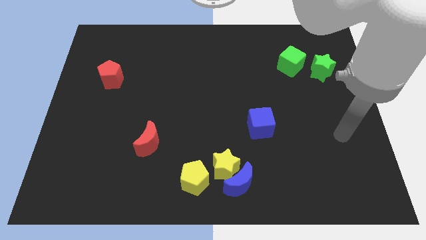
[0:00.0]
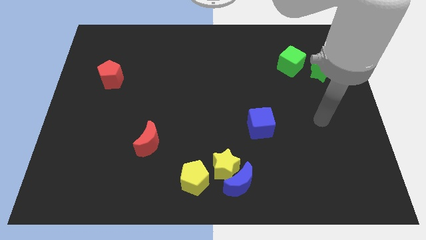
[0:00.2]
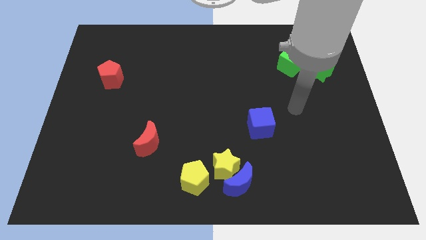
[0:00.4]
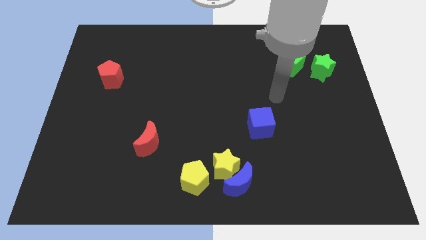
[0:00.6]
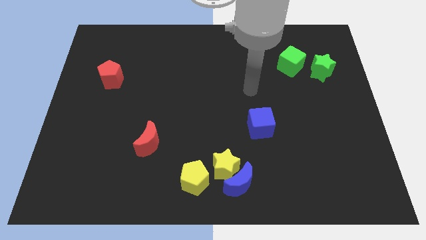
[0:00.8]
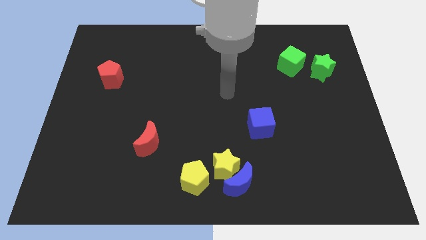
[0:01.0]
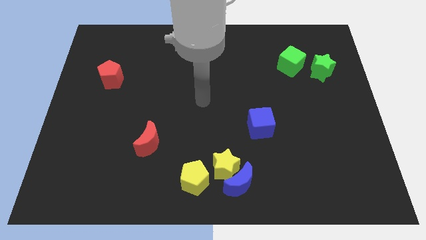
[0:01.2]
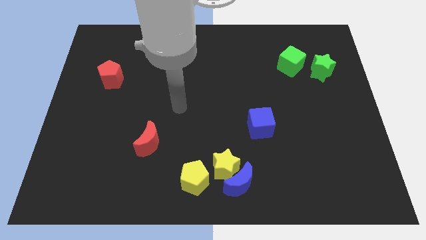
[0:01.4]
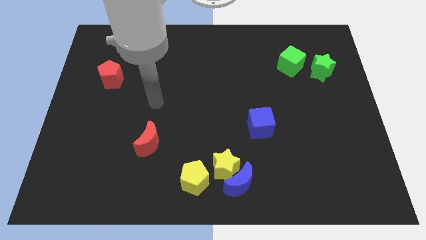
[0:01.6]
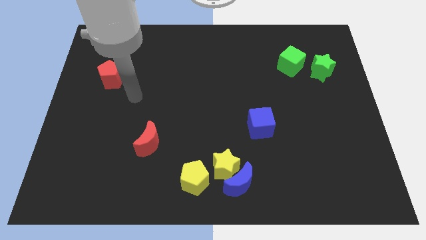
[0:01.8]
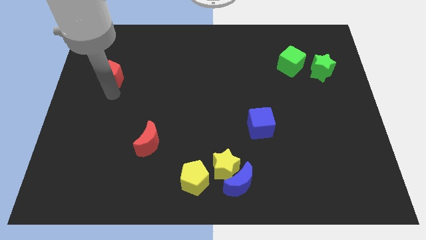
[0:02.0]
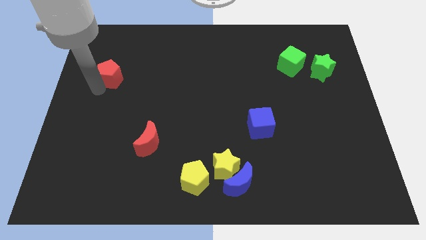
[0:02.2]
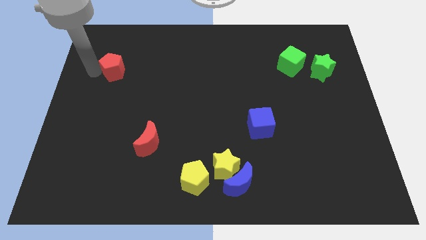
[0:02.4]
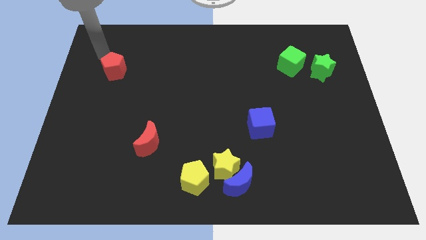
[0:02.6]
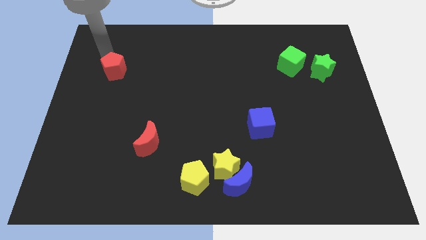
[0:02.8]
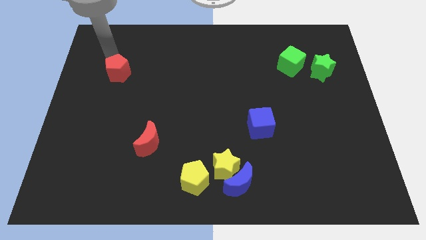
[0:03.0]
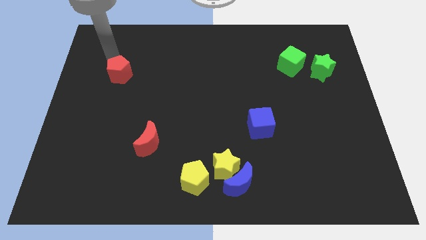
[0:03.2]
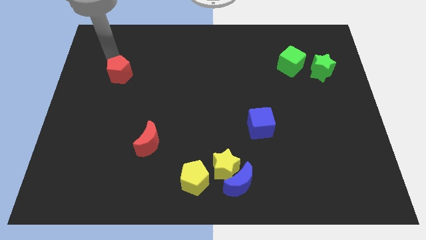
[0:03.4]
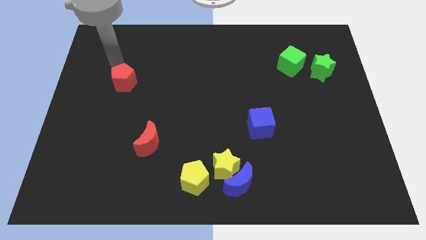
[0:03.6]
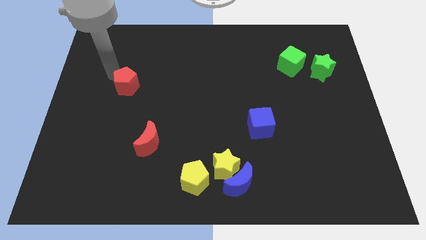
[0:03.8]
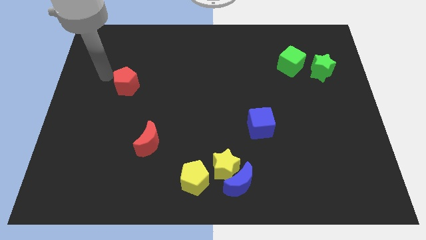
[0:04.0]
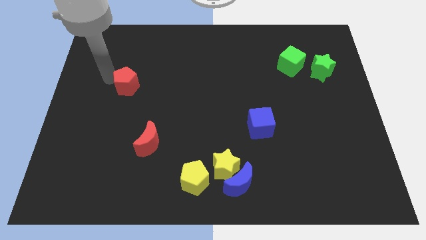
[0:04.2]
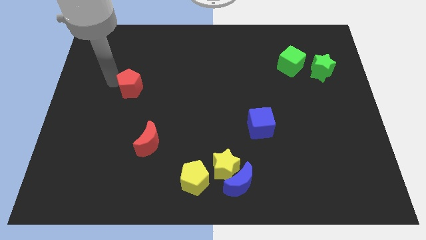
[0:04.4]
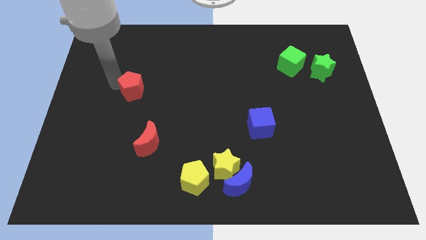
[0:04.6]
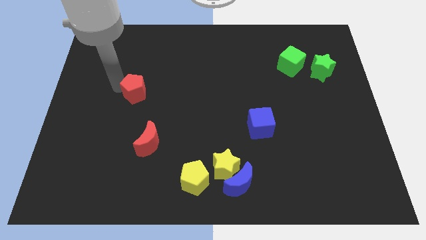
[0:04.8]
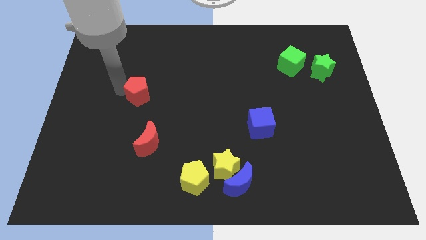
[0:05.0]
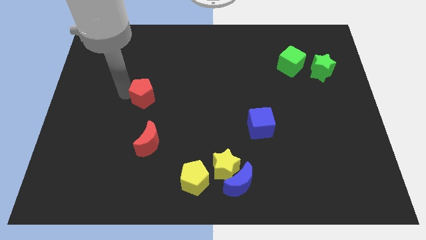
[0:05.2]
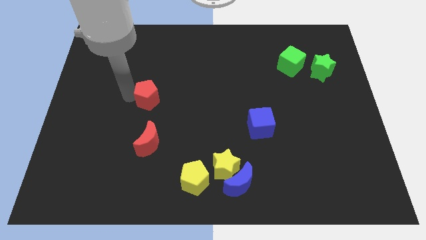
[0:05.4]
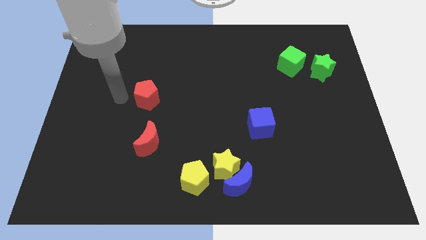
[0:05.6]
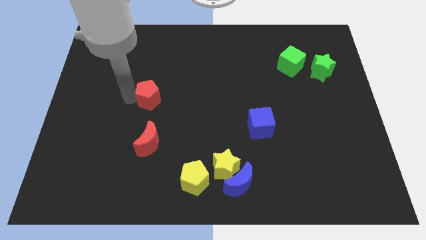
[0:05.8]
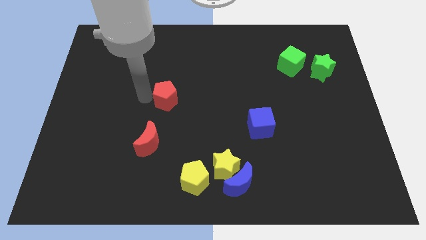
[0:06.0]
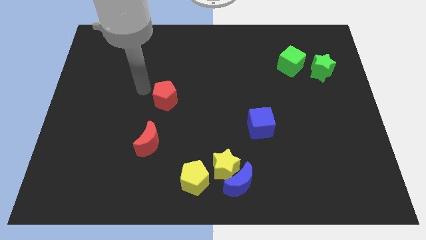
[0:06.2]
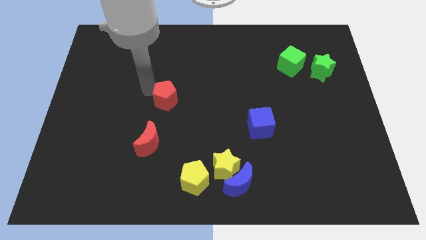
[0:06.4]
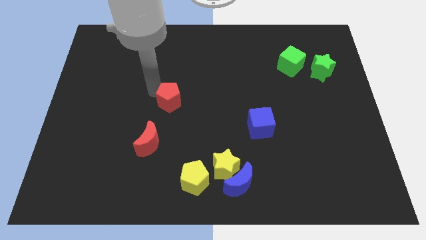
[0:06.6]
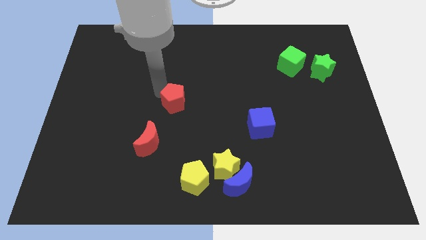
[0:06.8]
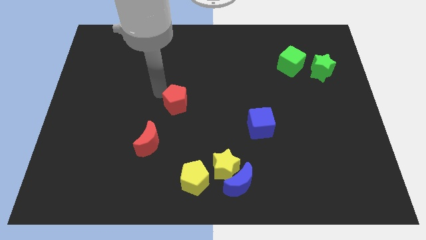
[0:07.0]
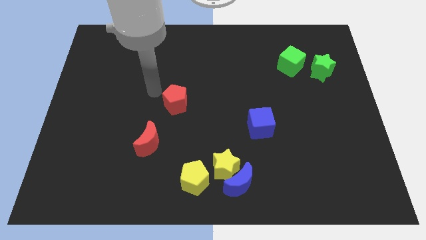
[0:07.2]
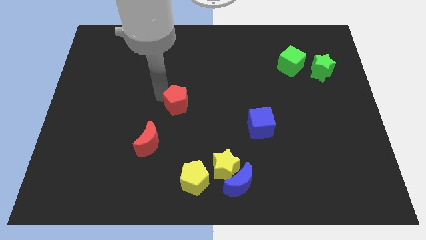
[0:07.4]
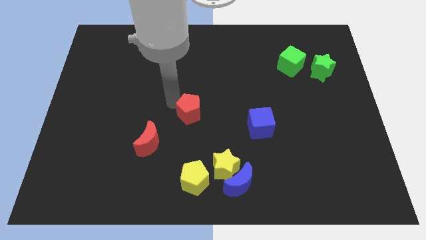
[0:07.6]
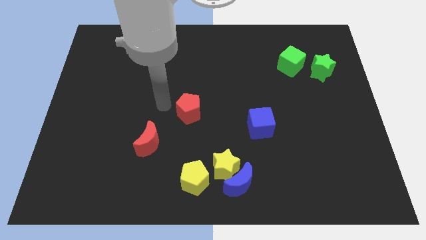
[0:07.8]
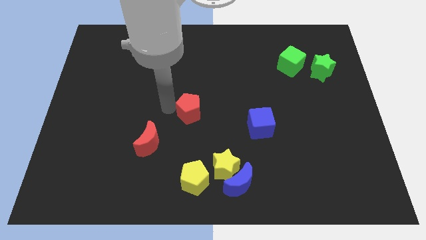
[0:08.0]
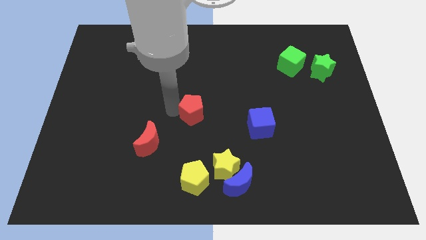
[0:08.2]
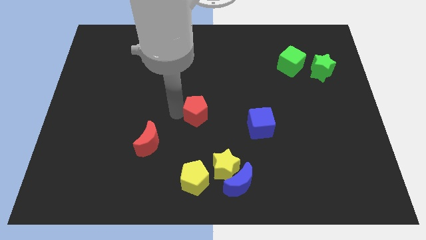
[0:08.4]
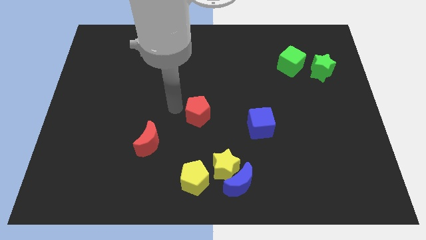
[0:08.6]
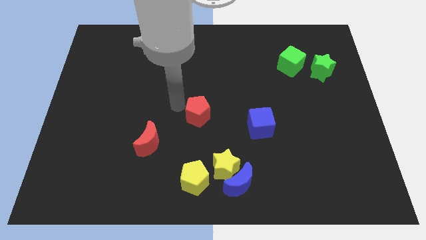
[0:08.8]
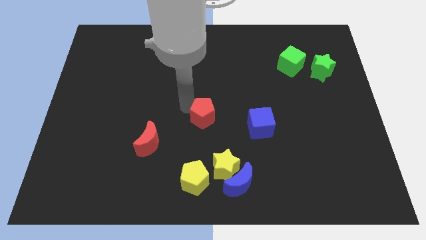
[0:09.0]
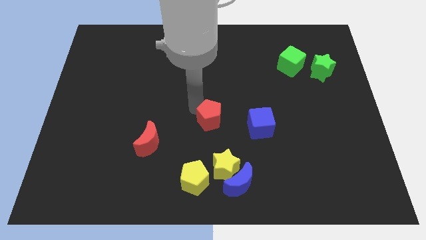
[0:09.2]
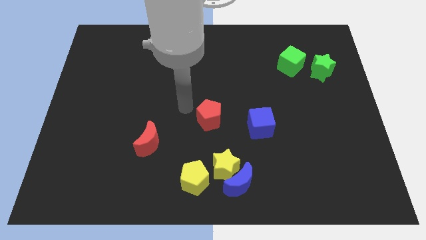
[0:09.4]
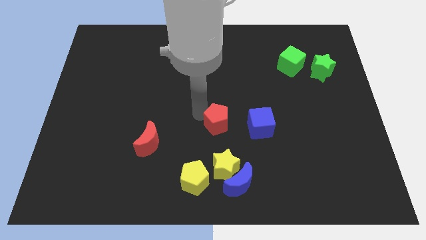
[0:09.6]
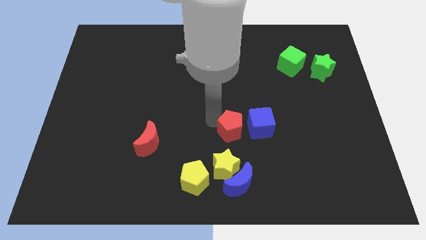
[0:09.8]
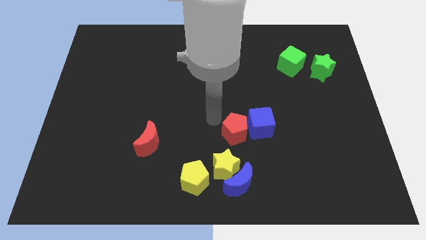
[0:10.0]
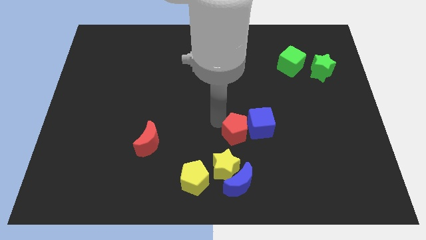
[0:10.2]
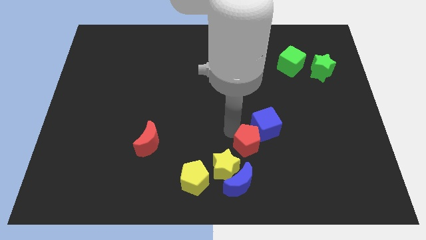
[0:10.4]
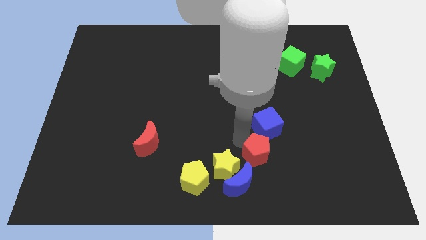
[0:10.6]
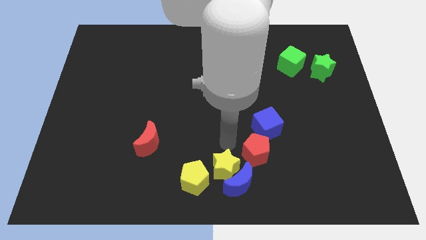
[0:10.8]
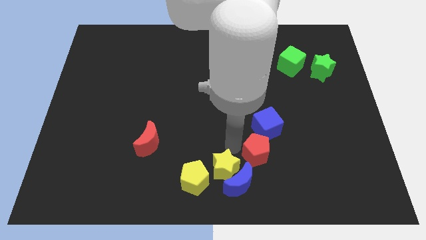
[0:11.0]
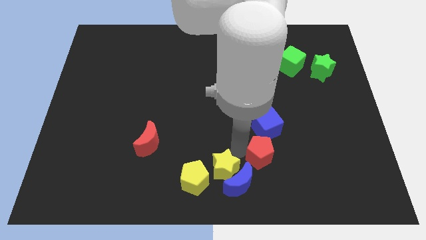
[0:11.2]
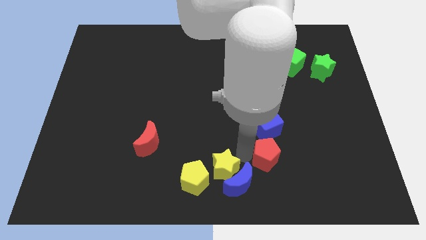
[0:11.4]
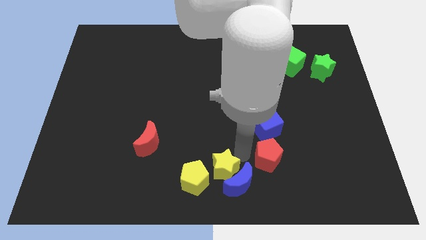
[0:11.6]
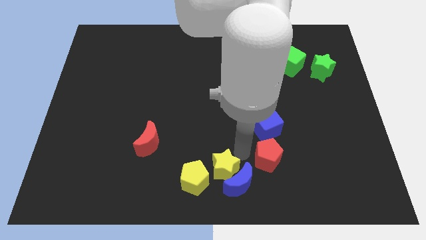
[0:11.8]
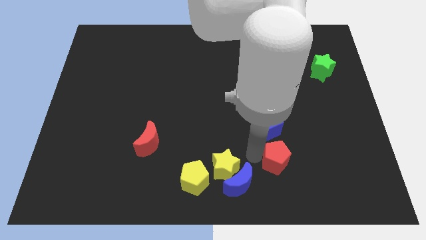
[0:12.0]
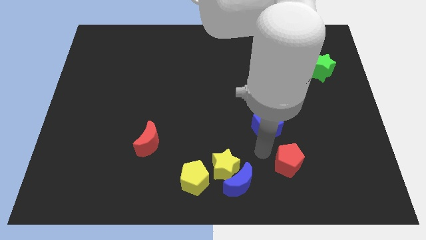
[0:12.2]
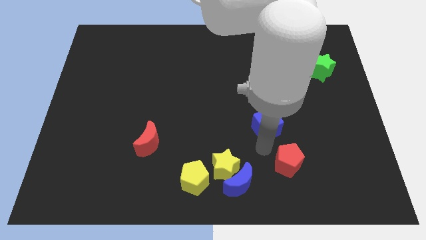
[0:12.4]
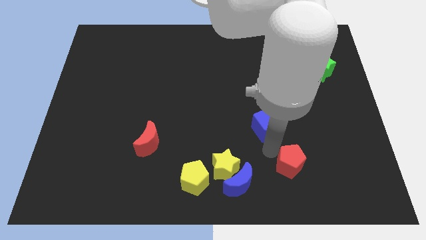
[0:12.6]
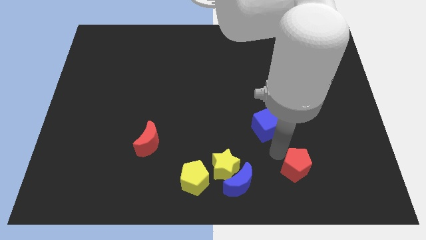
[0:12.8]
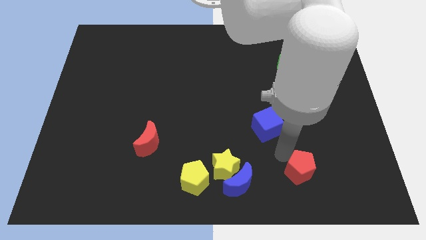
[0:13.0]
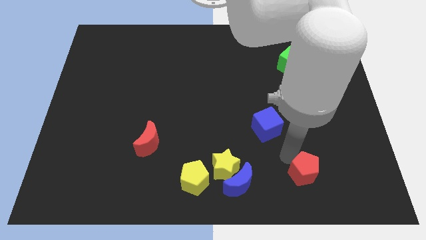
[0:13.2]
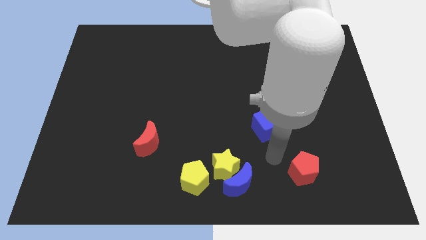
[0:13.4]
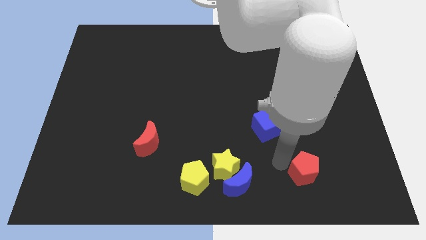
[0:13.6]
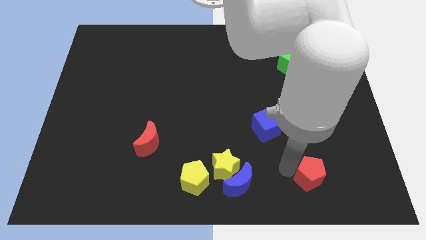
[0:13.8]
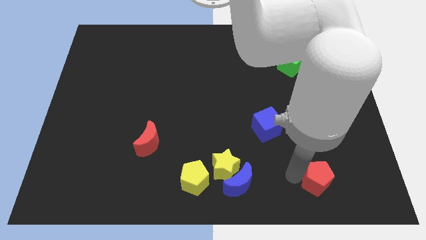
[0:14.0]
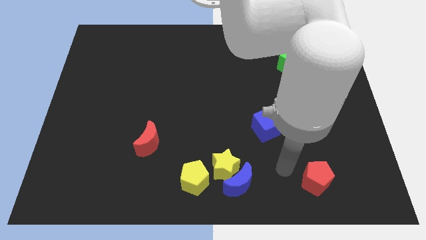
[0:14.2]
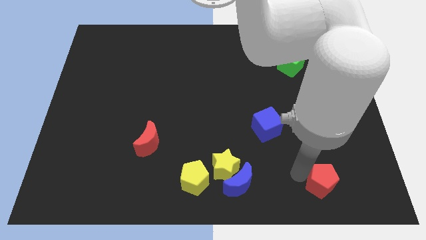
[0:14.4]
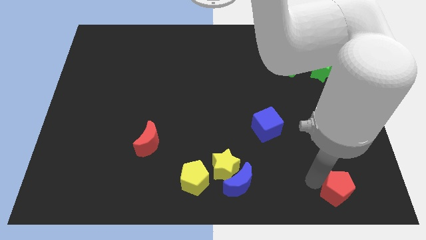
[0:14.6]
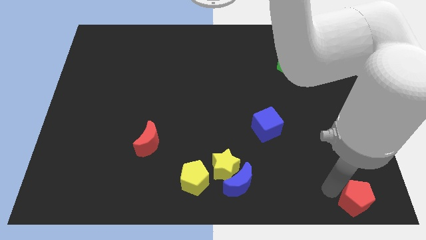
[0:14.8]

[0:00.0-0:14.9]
push the red pentagon to the bottom right

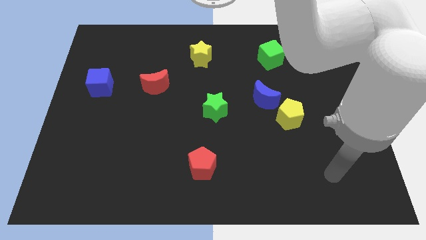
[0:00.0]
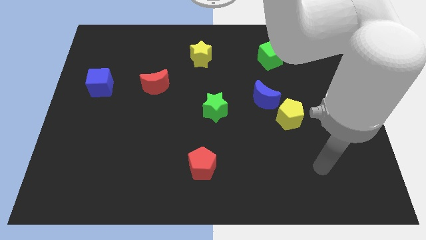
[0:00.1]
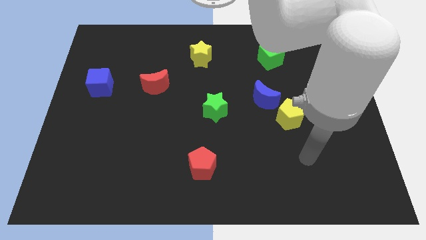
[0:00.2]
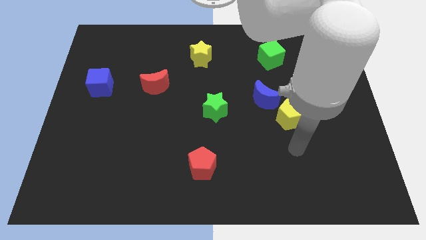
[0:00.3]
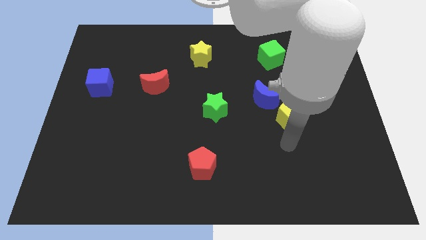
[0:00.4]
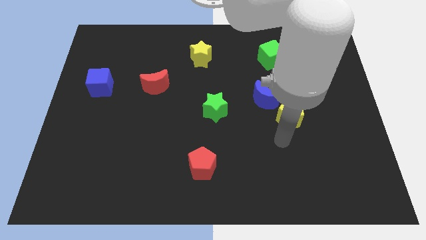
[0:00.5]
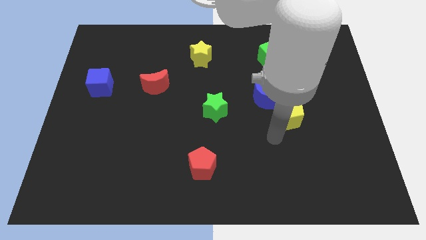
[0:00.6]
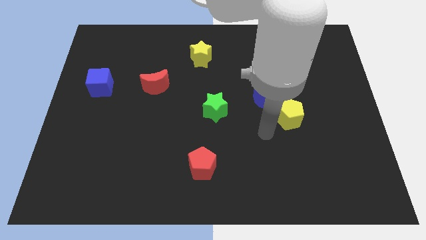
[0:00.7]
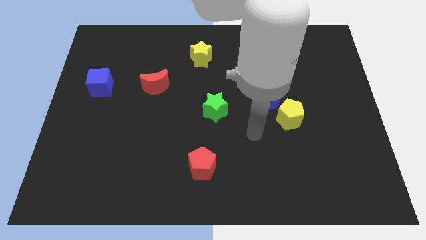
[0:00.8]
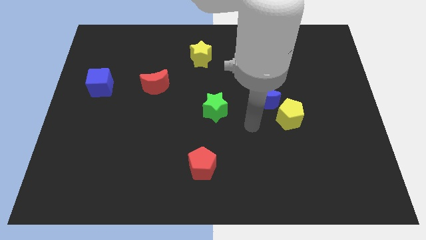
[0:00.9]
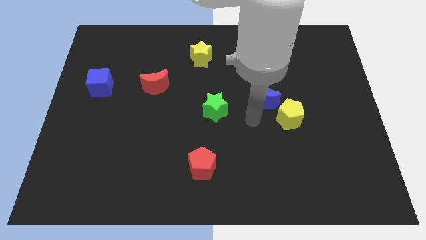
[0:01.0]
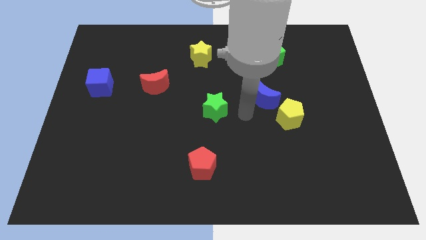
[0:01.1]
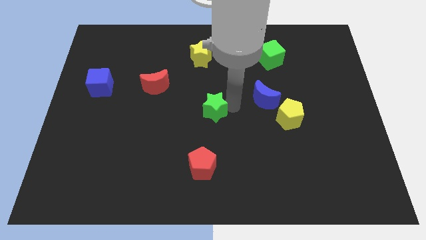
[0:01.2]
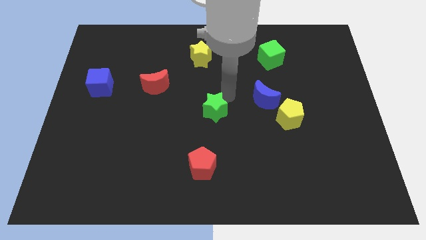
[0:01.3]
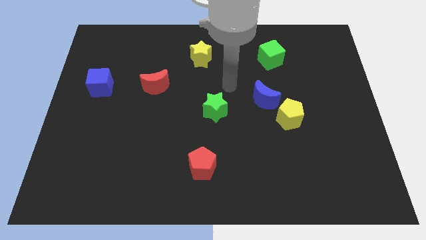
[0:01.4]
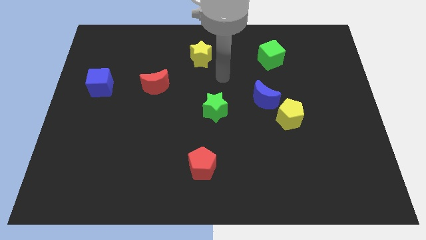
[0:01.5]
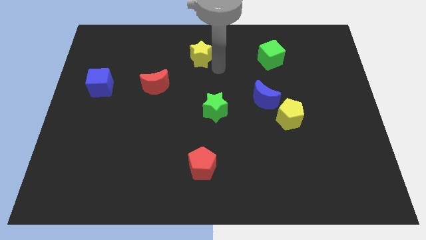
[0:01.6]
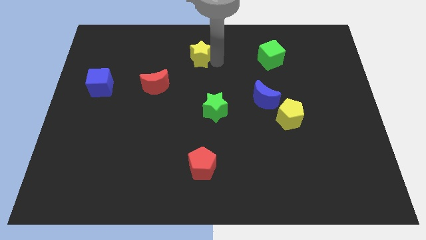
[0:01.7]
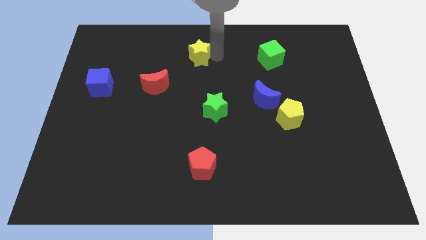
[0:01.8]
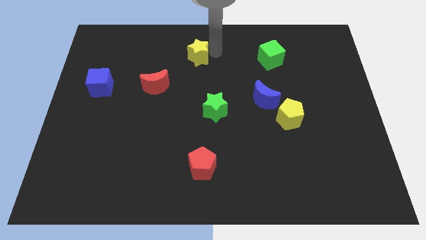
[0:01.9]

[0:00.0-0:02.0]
put the yellow star to the top side
